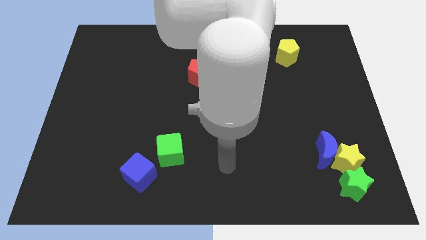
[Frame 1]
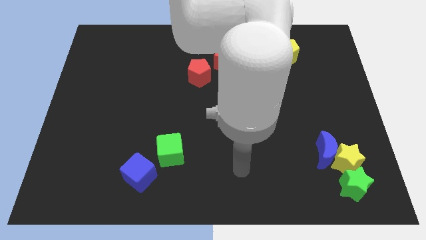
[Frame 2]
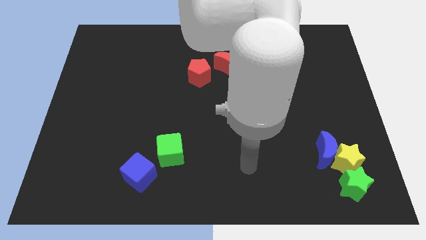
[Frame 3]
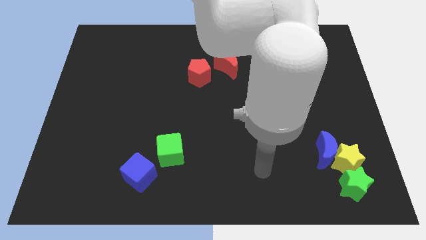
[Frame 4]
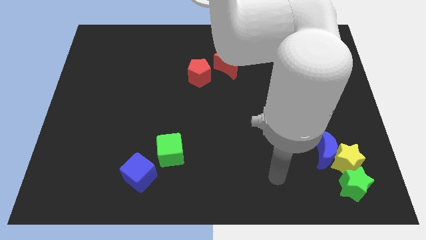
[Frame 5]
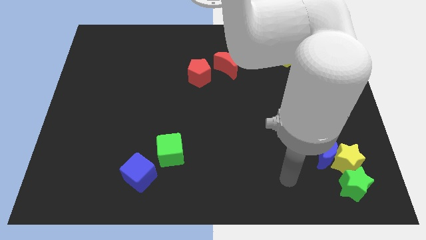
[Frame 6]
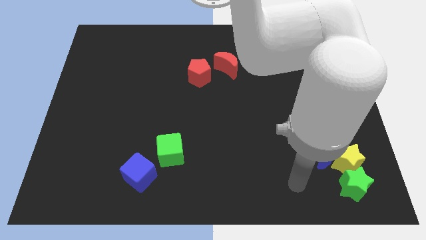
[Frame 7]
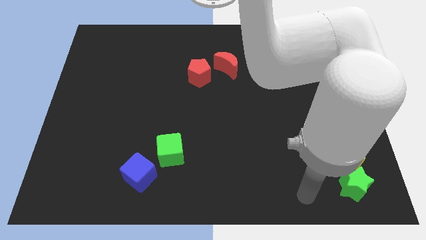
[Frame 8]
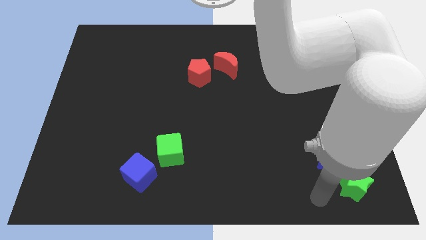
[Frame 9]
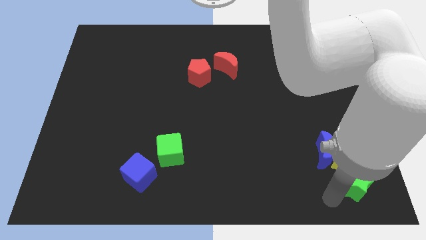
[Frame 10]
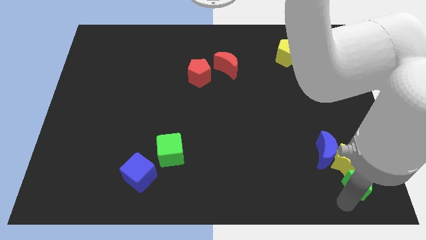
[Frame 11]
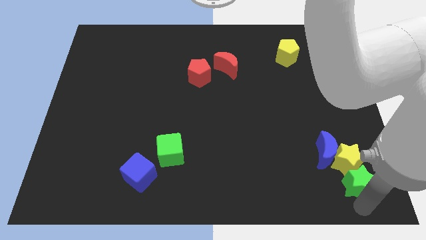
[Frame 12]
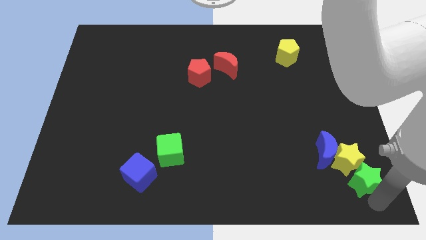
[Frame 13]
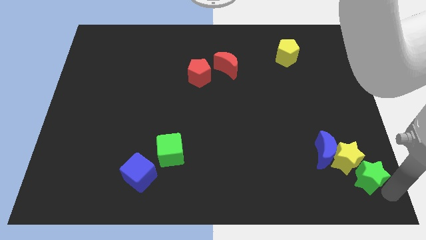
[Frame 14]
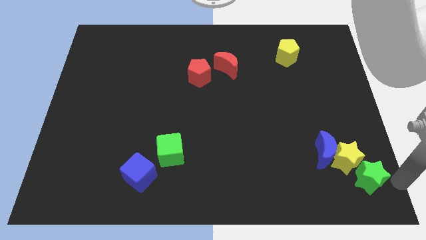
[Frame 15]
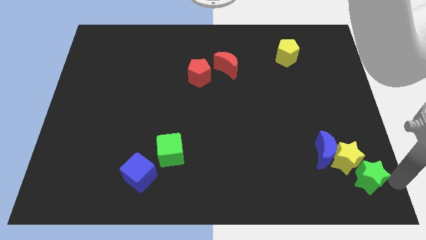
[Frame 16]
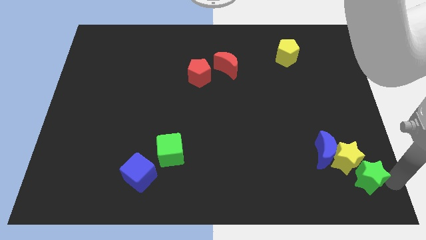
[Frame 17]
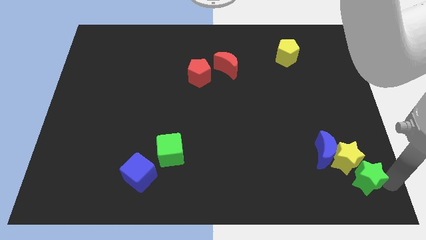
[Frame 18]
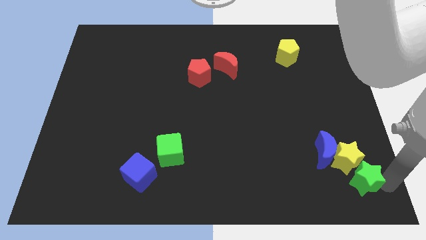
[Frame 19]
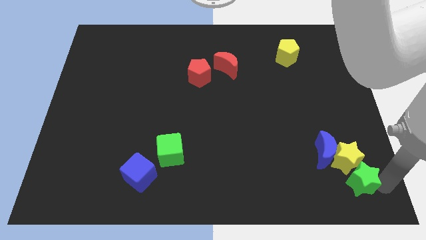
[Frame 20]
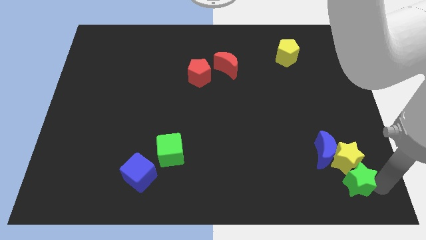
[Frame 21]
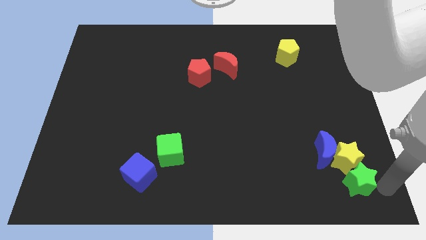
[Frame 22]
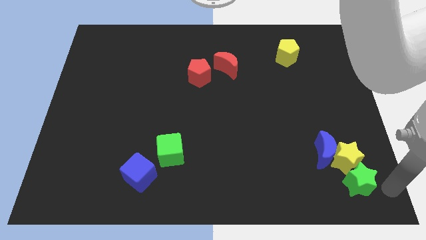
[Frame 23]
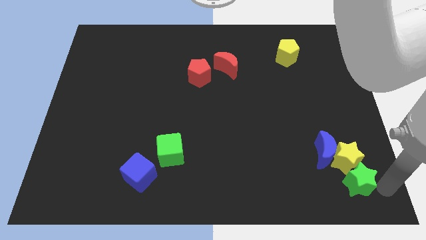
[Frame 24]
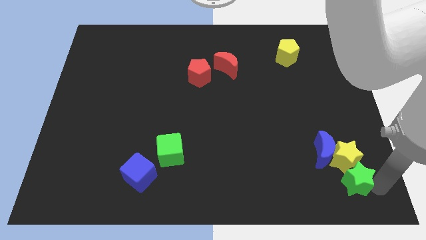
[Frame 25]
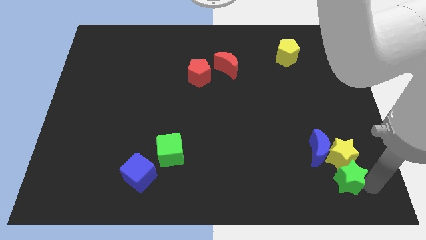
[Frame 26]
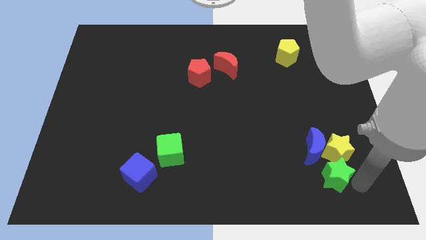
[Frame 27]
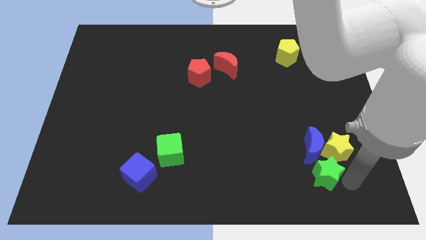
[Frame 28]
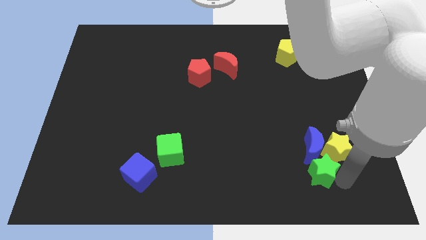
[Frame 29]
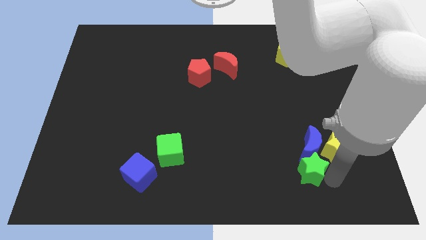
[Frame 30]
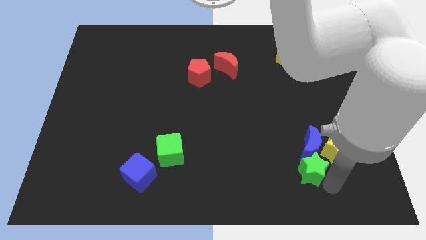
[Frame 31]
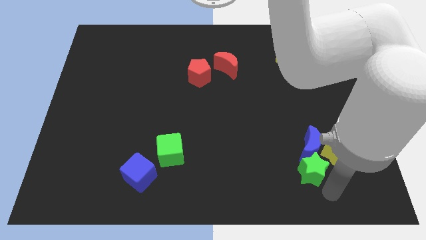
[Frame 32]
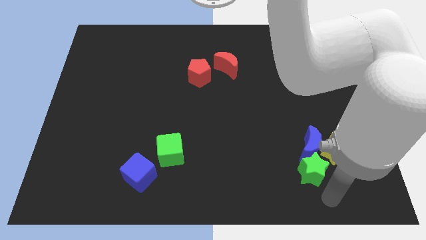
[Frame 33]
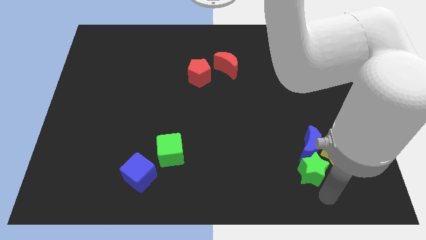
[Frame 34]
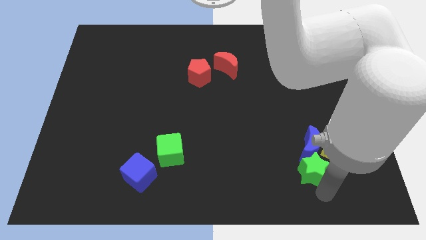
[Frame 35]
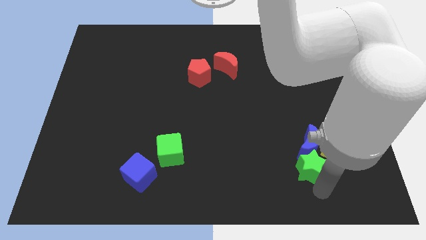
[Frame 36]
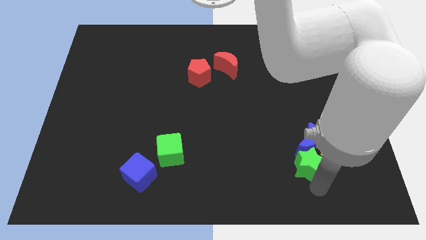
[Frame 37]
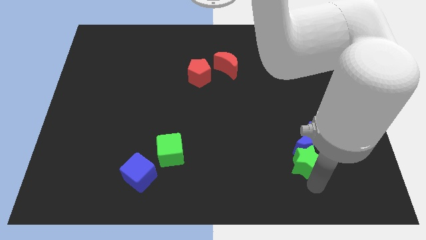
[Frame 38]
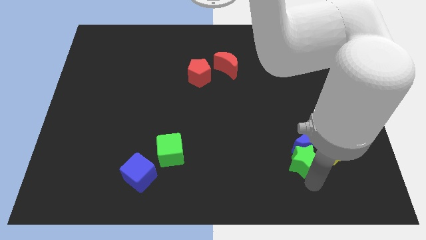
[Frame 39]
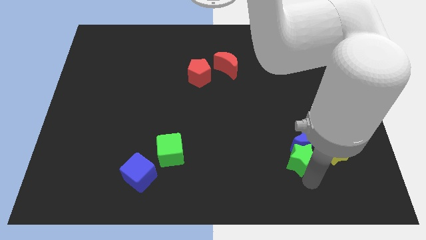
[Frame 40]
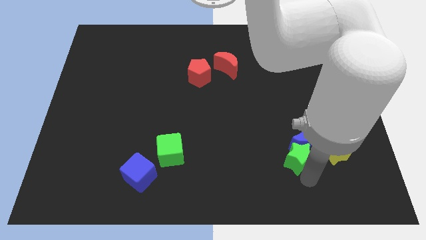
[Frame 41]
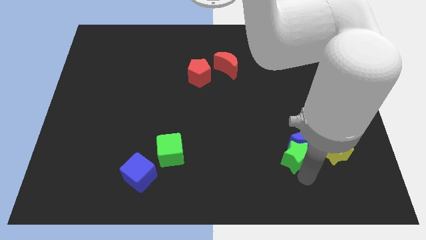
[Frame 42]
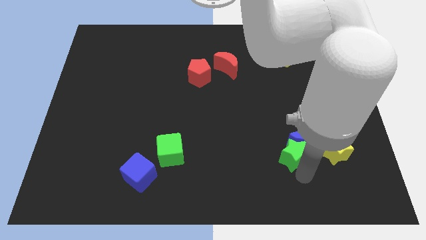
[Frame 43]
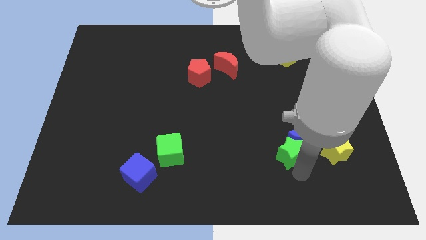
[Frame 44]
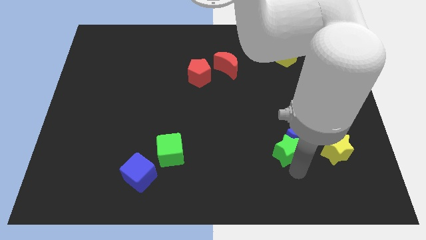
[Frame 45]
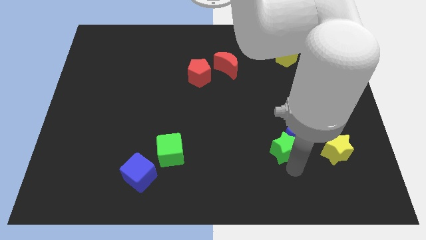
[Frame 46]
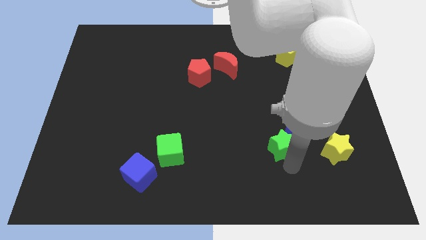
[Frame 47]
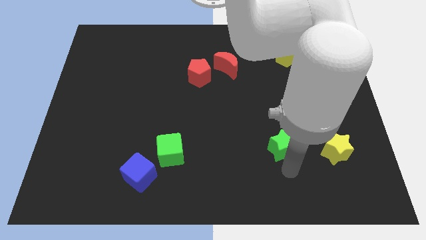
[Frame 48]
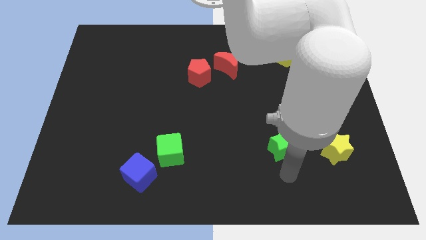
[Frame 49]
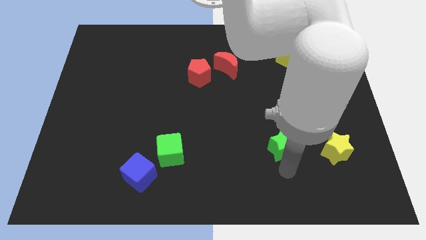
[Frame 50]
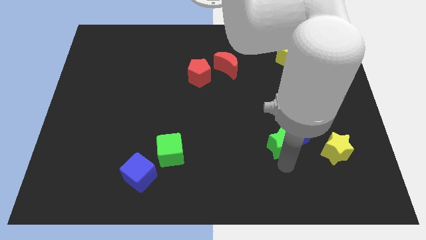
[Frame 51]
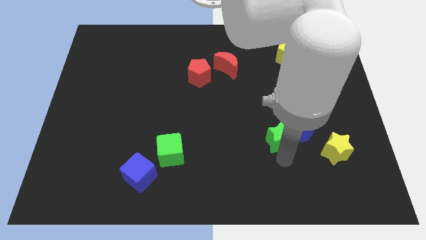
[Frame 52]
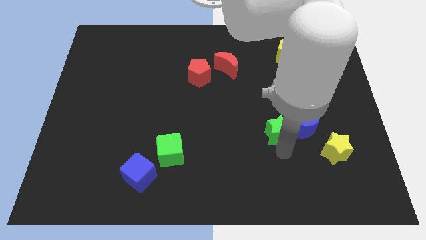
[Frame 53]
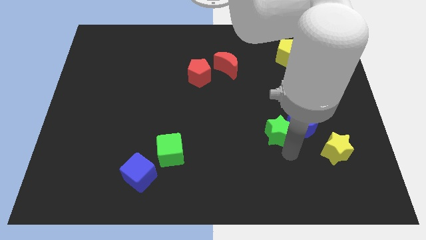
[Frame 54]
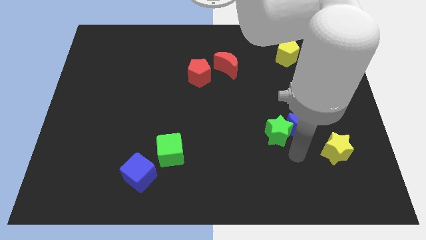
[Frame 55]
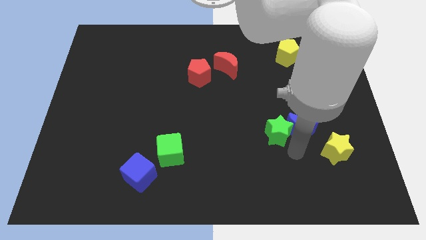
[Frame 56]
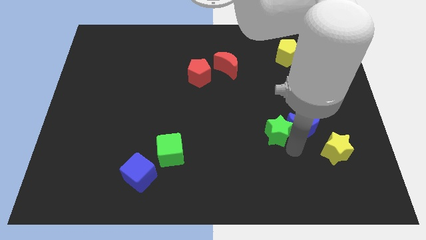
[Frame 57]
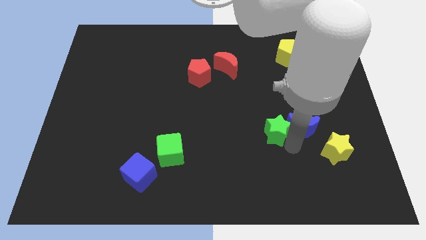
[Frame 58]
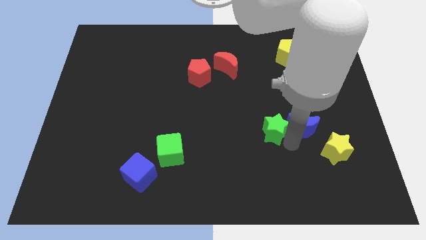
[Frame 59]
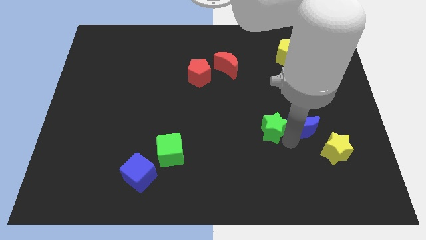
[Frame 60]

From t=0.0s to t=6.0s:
move the green star upwards and to the left

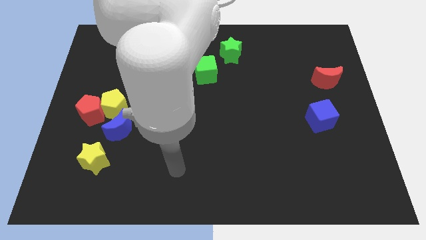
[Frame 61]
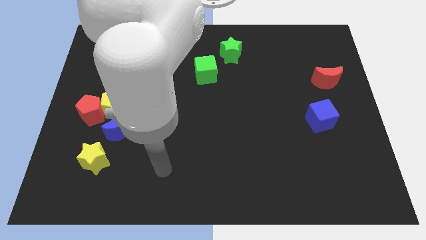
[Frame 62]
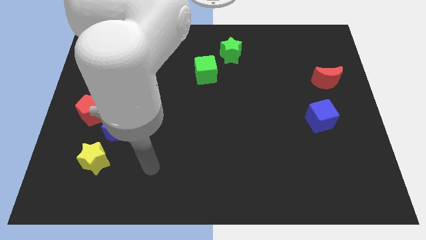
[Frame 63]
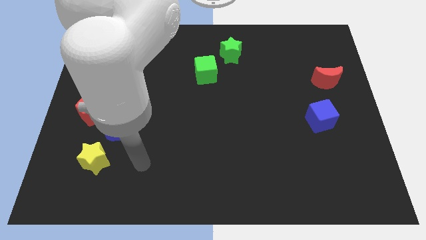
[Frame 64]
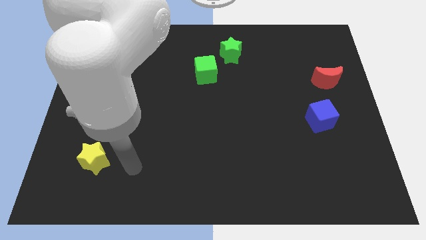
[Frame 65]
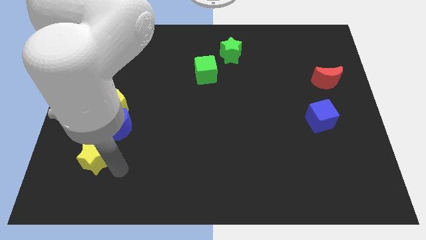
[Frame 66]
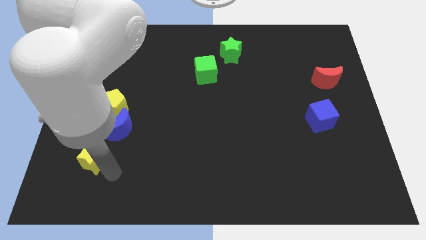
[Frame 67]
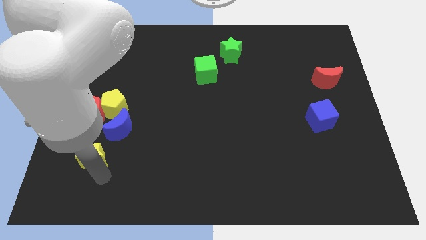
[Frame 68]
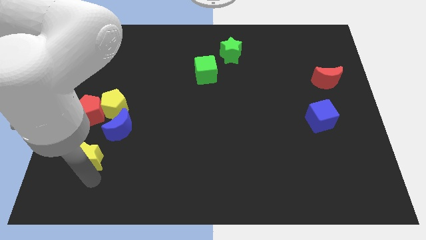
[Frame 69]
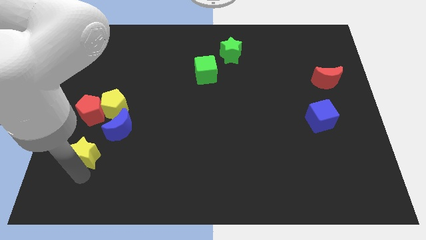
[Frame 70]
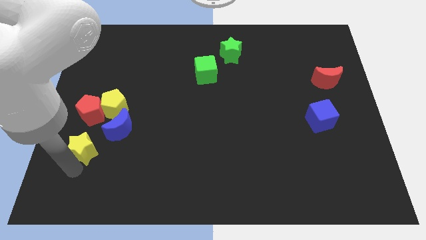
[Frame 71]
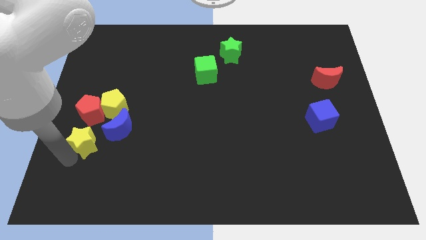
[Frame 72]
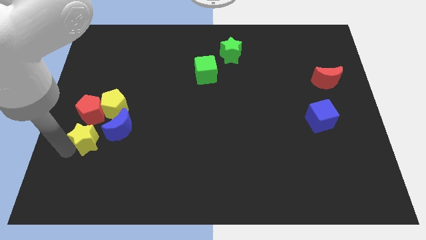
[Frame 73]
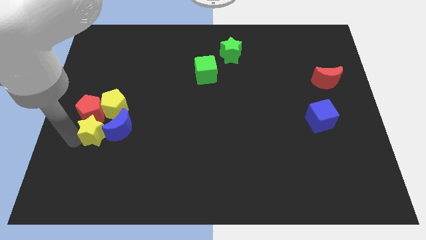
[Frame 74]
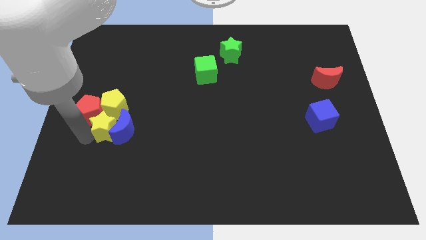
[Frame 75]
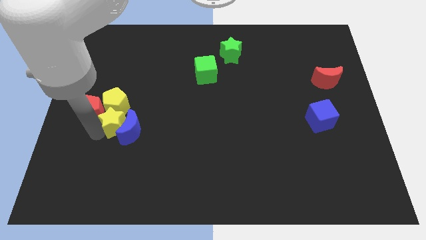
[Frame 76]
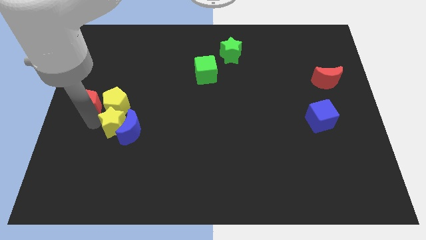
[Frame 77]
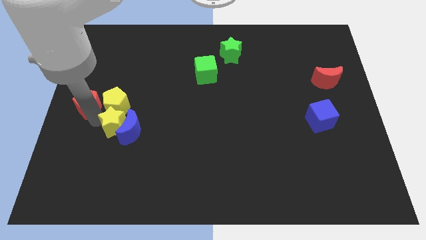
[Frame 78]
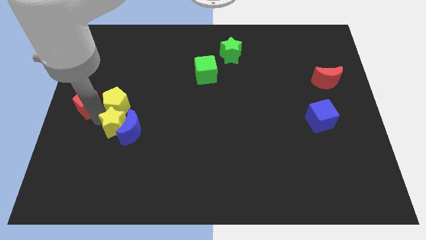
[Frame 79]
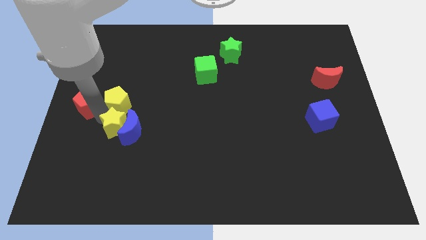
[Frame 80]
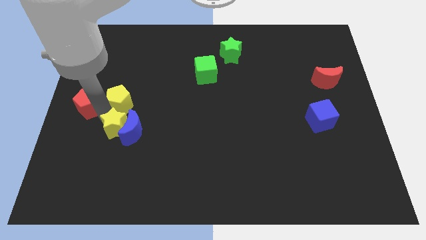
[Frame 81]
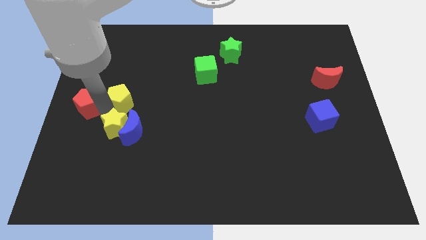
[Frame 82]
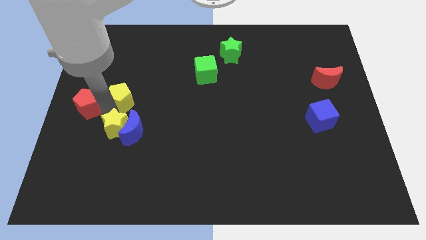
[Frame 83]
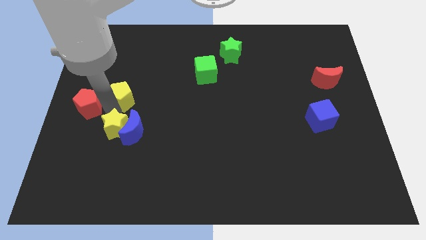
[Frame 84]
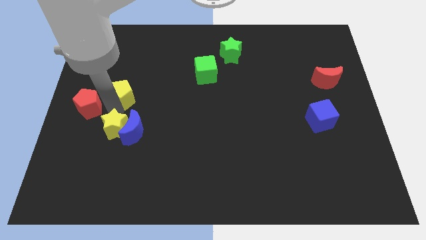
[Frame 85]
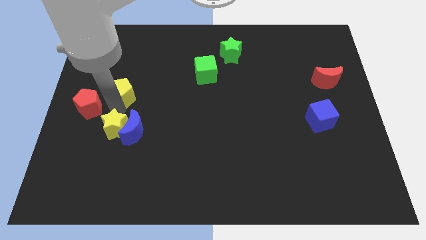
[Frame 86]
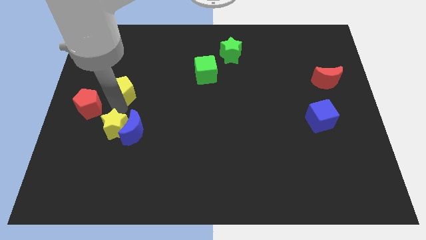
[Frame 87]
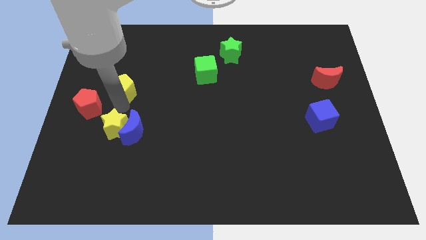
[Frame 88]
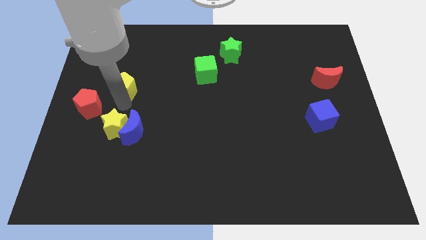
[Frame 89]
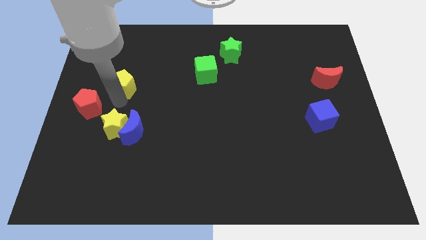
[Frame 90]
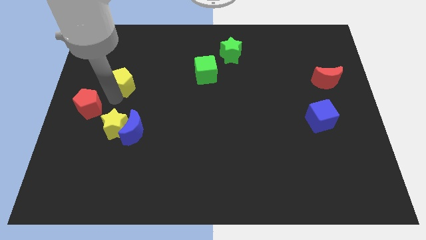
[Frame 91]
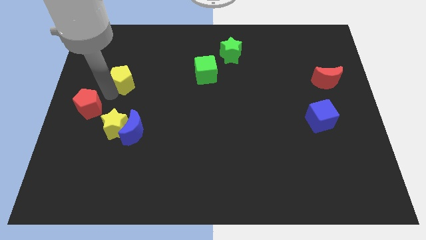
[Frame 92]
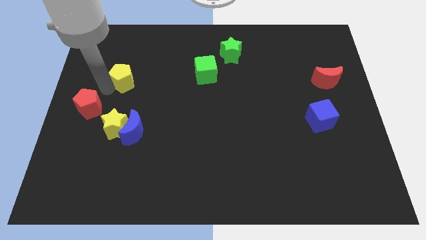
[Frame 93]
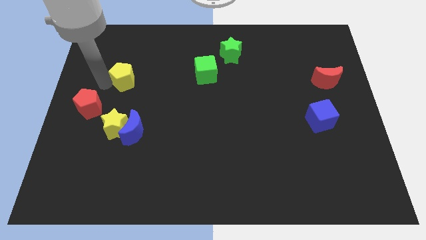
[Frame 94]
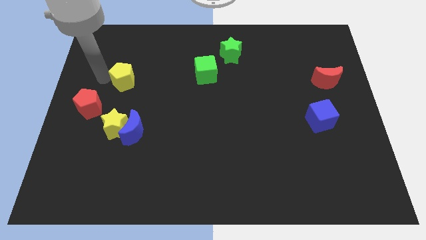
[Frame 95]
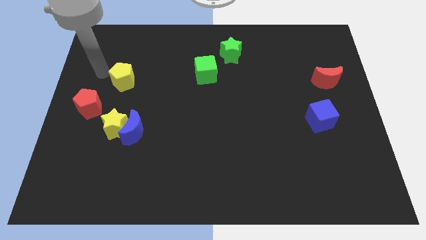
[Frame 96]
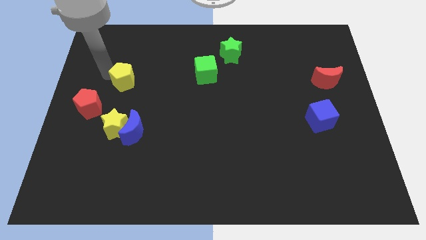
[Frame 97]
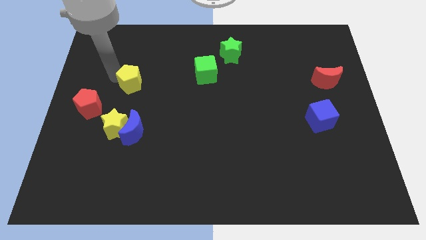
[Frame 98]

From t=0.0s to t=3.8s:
slide the yellow pentagon a little bit diagonally up and to the right
